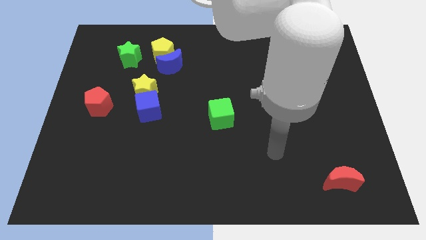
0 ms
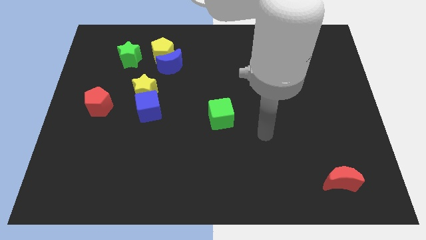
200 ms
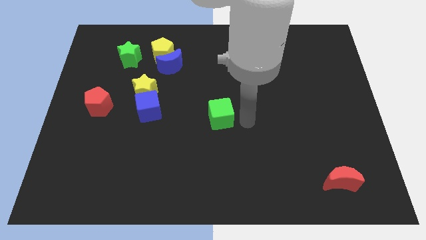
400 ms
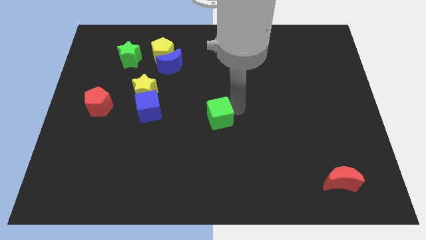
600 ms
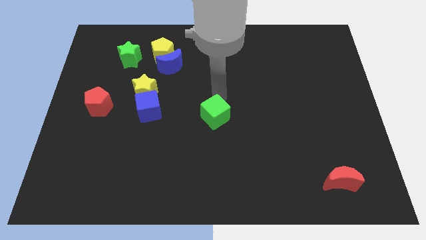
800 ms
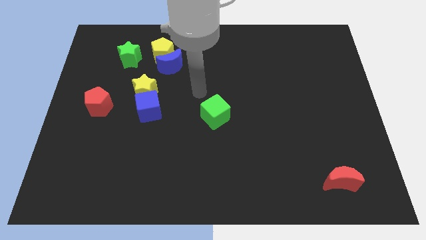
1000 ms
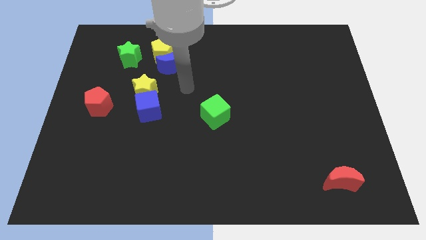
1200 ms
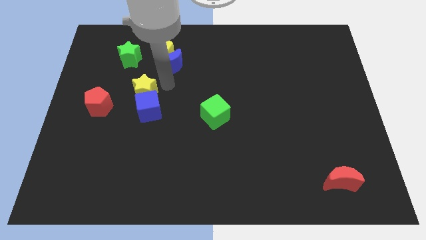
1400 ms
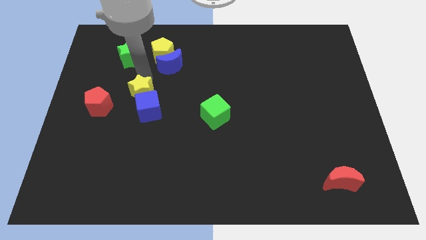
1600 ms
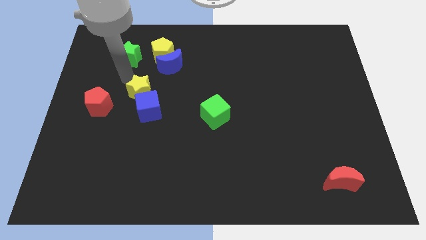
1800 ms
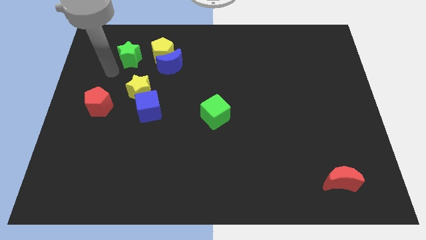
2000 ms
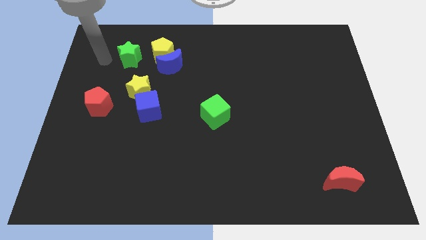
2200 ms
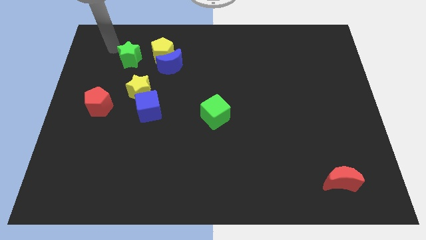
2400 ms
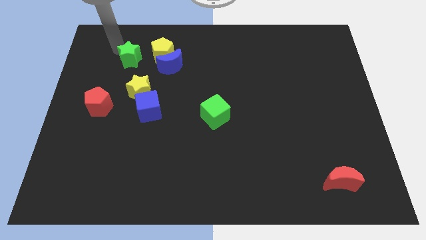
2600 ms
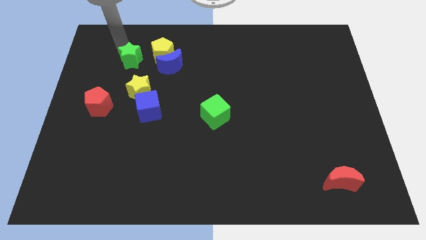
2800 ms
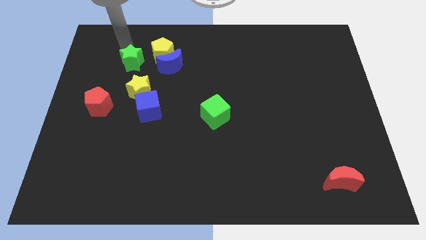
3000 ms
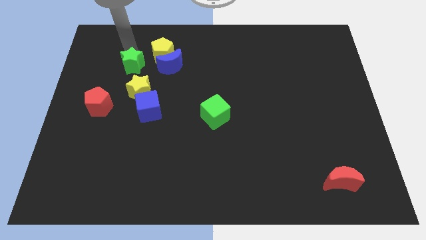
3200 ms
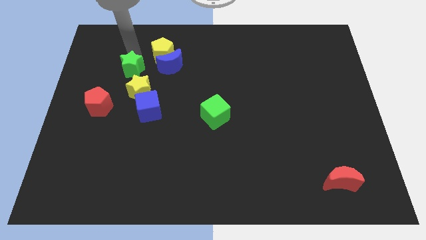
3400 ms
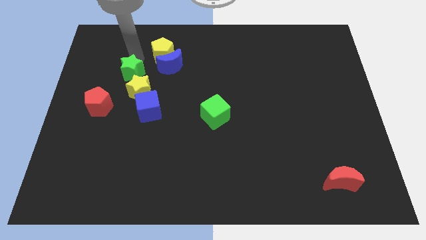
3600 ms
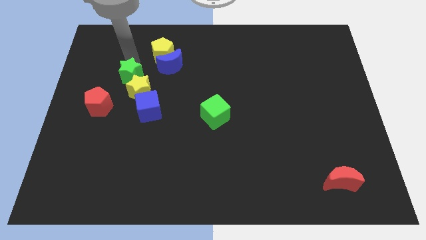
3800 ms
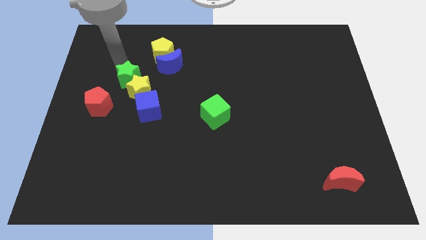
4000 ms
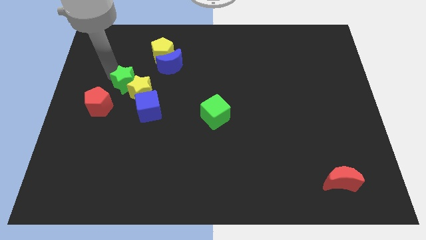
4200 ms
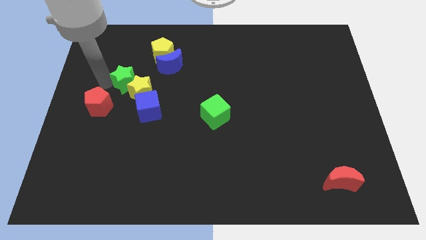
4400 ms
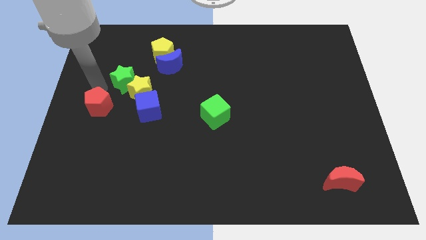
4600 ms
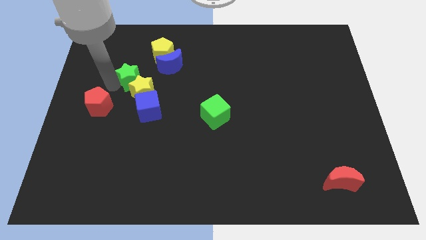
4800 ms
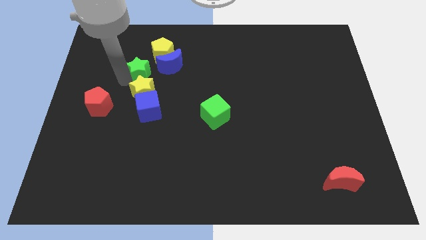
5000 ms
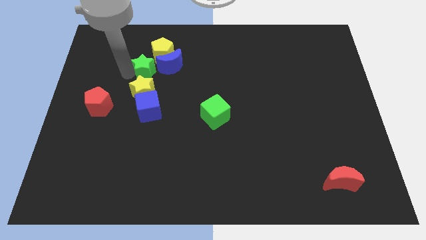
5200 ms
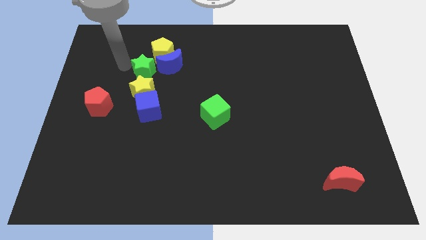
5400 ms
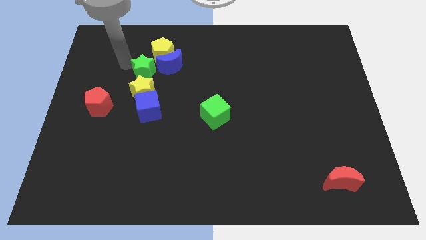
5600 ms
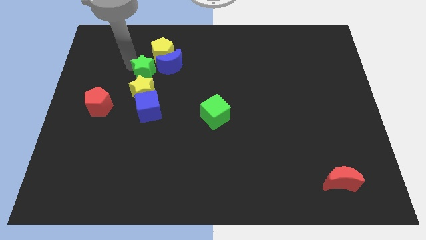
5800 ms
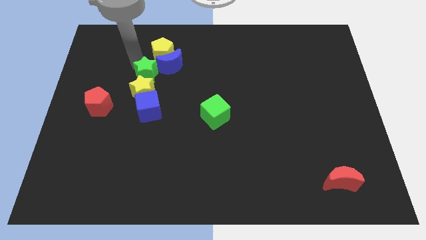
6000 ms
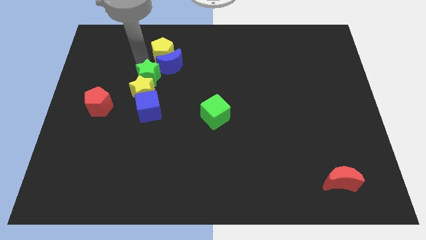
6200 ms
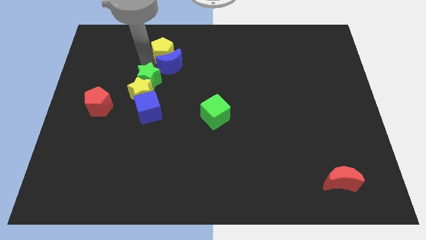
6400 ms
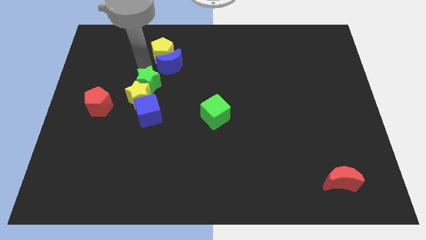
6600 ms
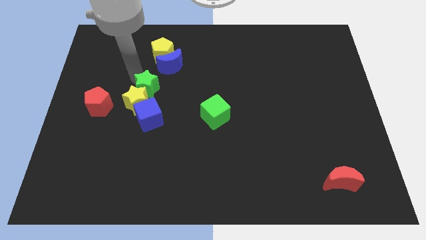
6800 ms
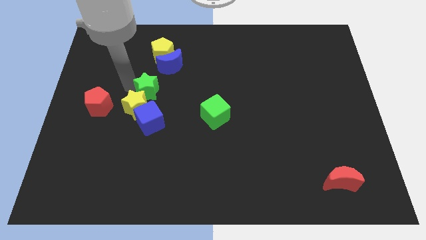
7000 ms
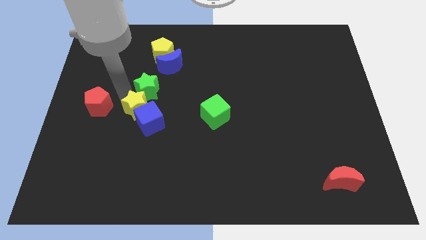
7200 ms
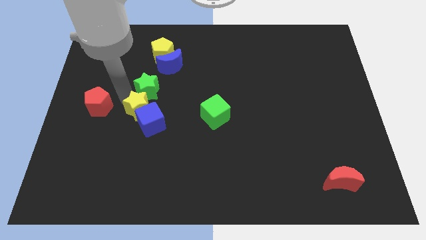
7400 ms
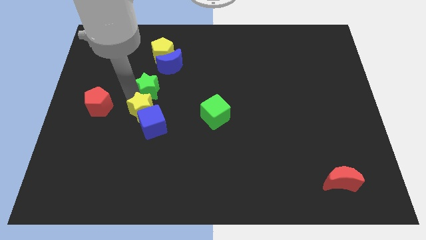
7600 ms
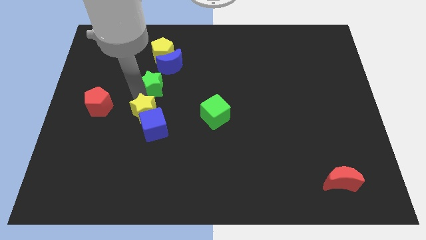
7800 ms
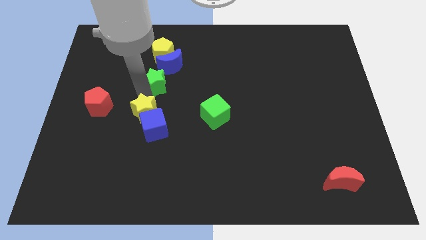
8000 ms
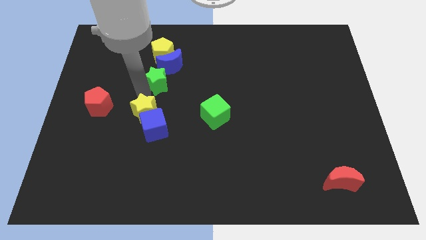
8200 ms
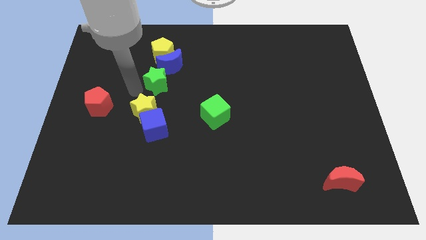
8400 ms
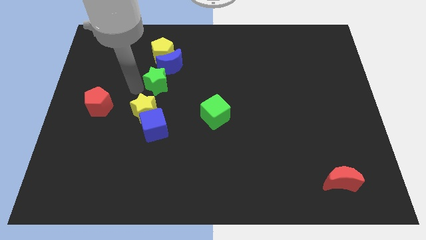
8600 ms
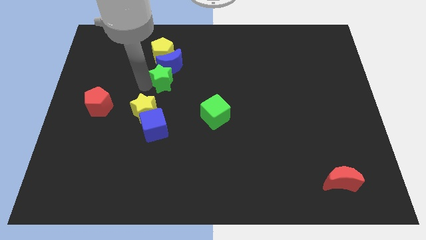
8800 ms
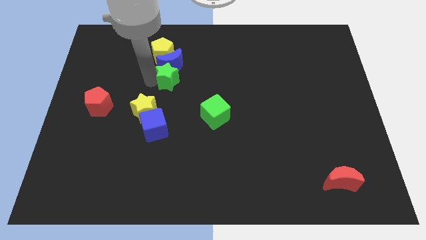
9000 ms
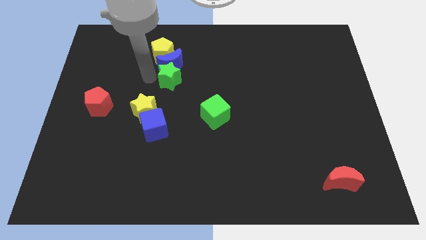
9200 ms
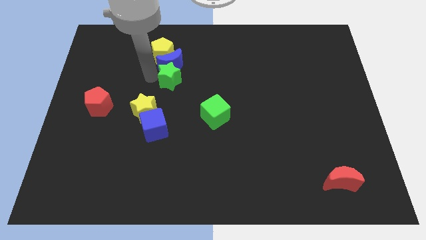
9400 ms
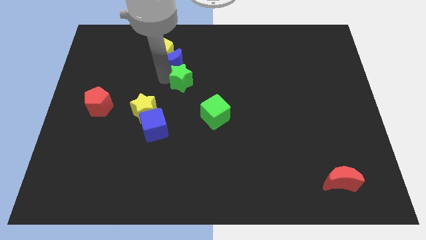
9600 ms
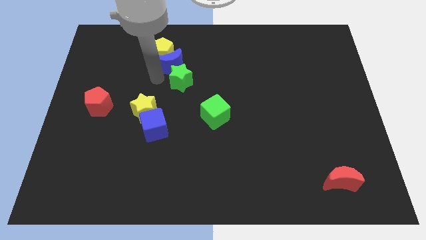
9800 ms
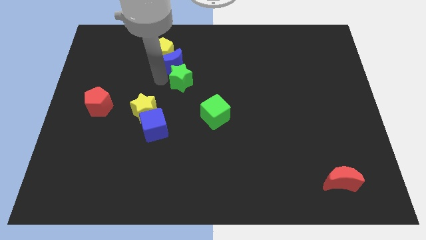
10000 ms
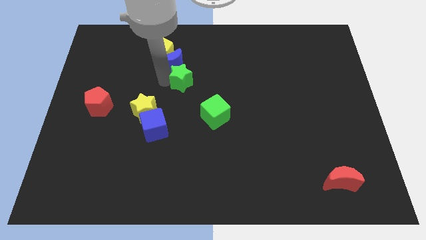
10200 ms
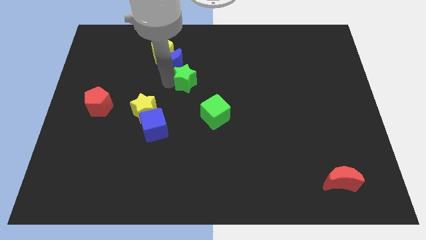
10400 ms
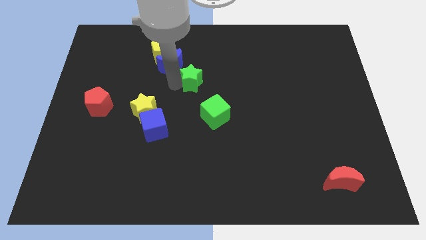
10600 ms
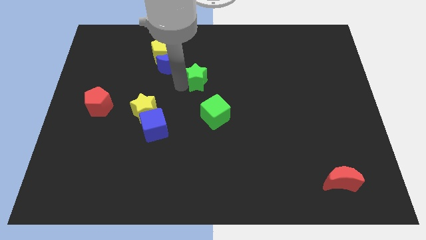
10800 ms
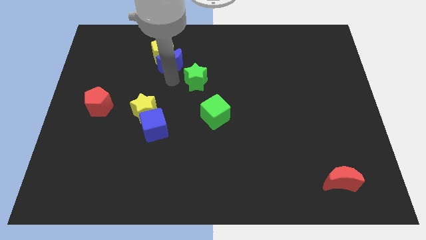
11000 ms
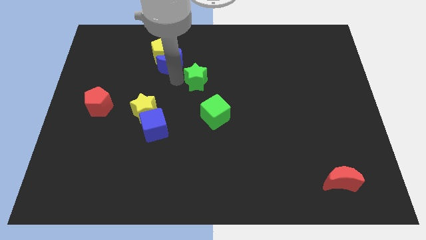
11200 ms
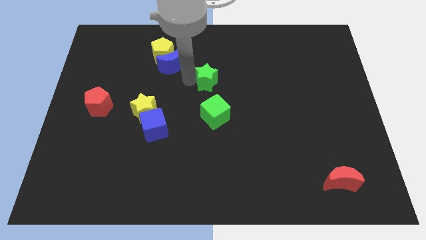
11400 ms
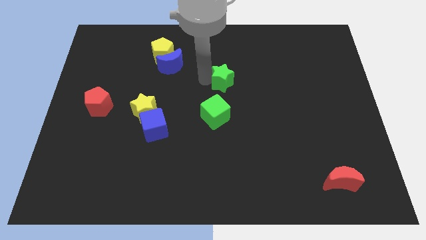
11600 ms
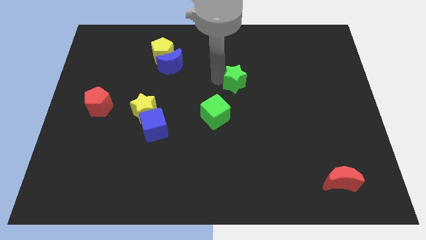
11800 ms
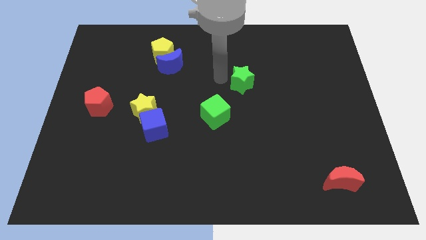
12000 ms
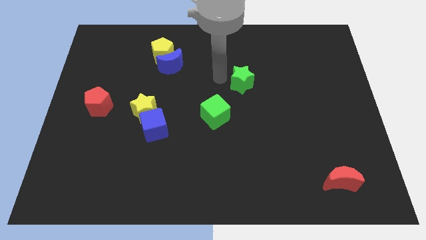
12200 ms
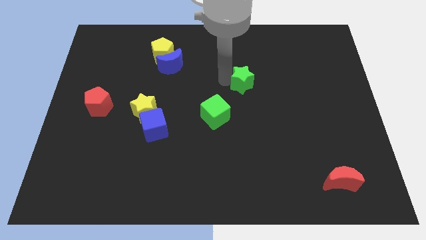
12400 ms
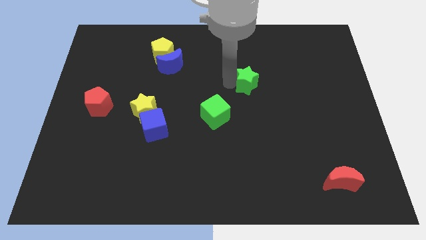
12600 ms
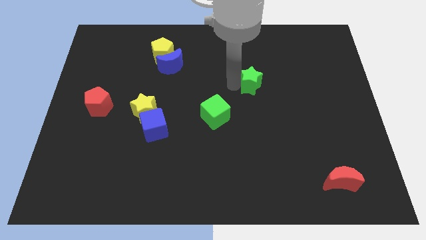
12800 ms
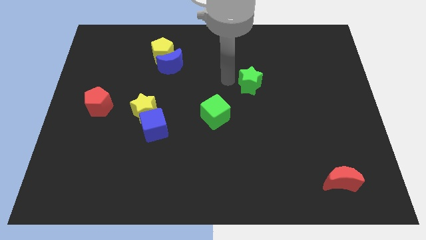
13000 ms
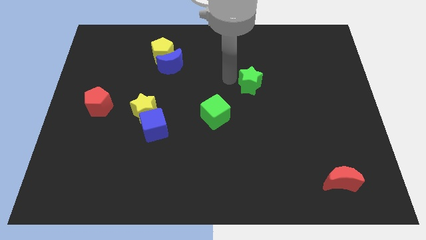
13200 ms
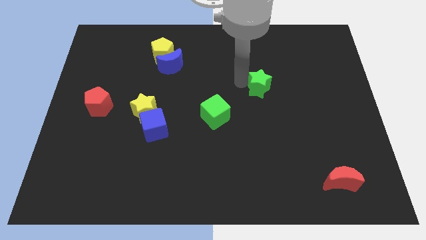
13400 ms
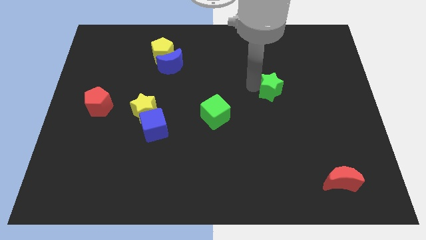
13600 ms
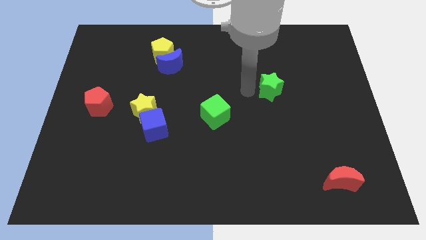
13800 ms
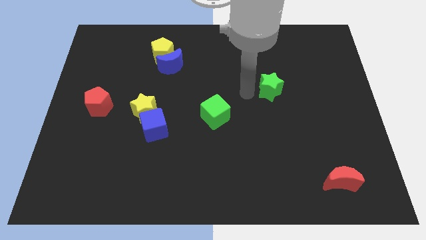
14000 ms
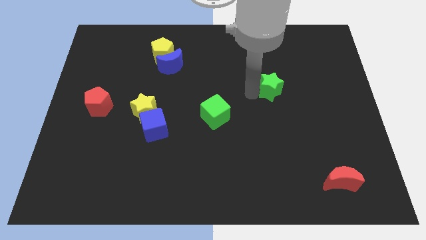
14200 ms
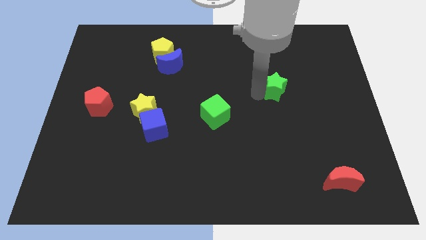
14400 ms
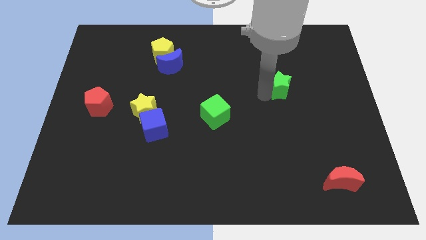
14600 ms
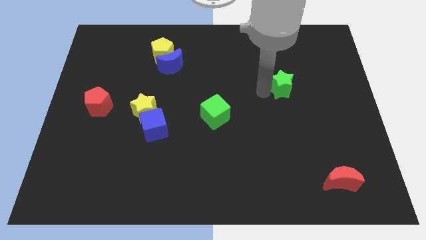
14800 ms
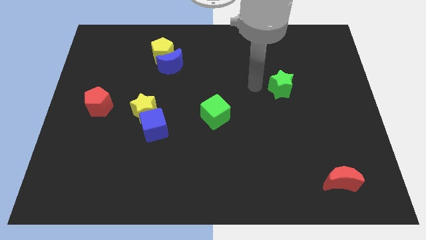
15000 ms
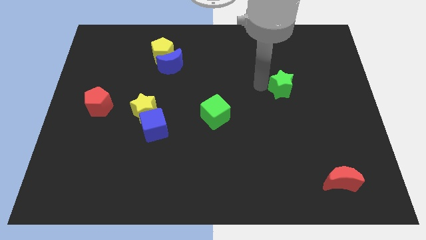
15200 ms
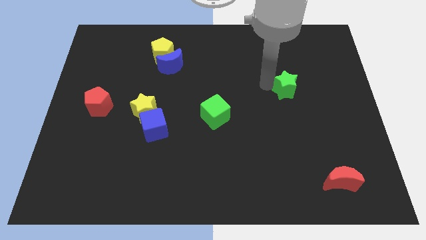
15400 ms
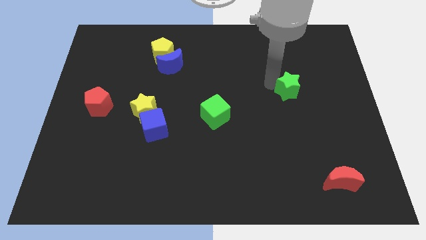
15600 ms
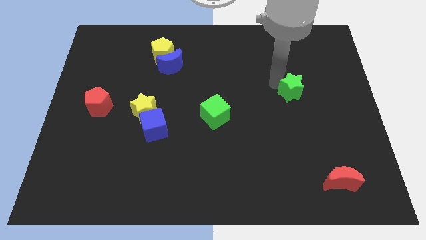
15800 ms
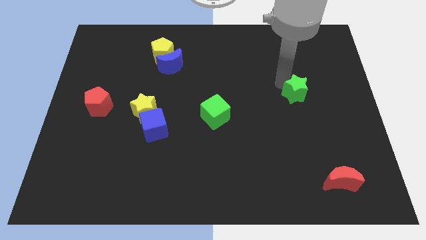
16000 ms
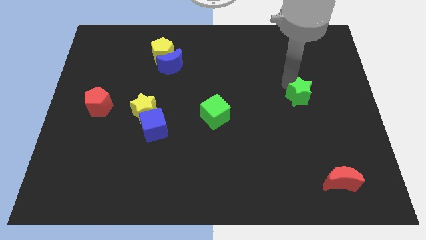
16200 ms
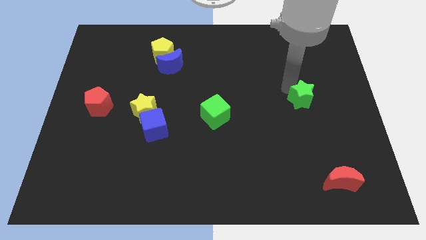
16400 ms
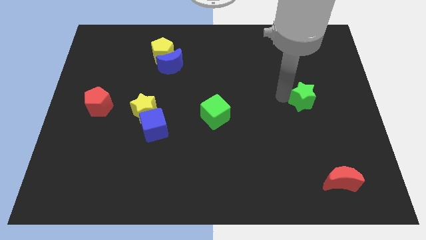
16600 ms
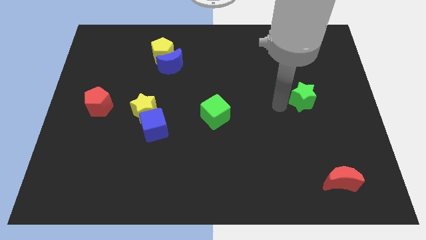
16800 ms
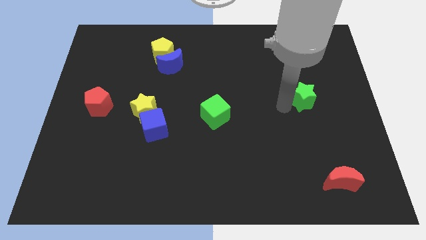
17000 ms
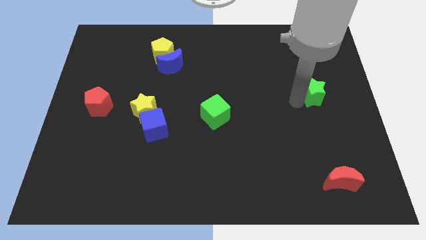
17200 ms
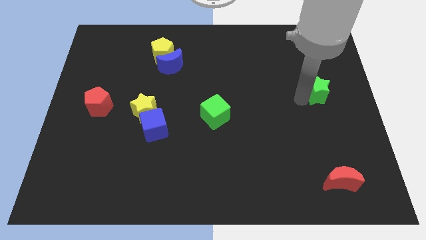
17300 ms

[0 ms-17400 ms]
move the green star to the center right
